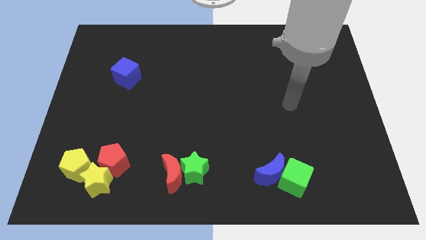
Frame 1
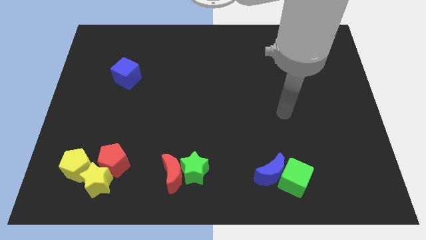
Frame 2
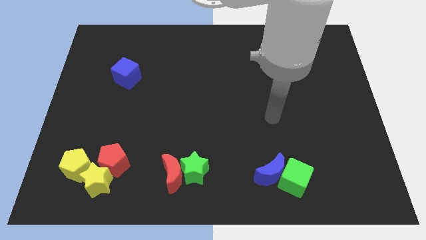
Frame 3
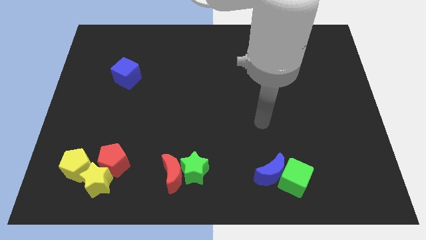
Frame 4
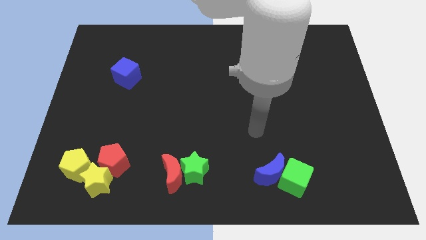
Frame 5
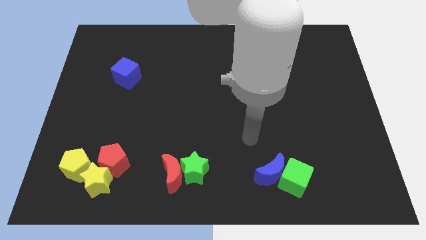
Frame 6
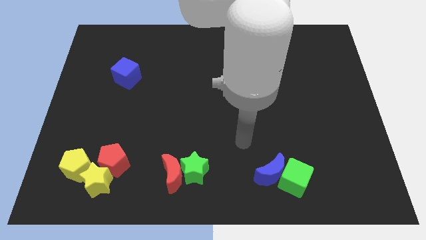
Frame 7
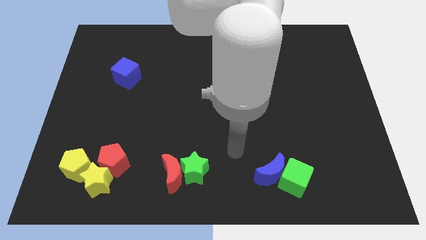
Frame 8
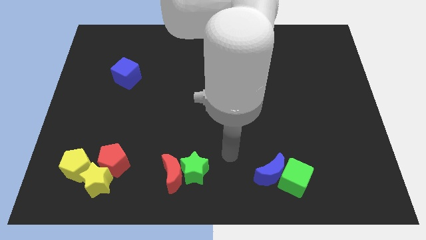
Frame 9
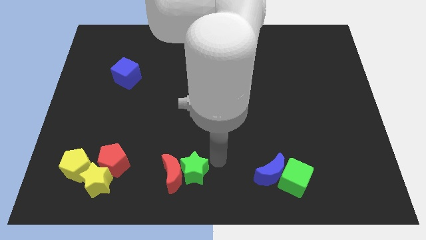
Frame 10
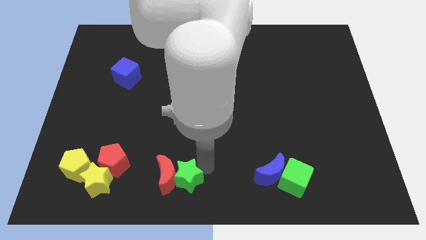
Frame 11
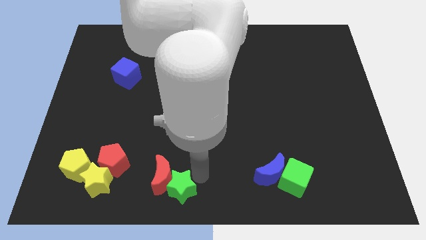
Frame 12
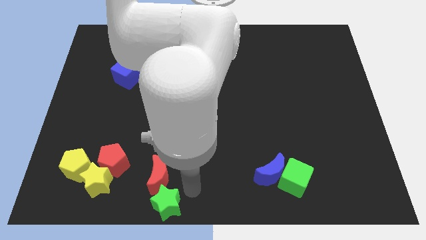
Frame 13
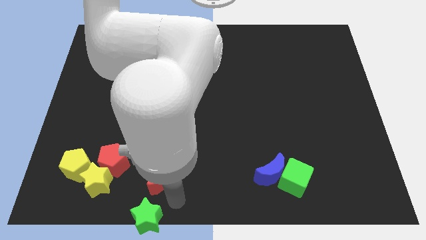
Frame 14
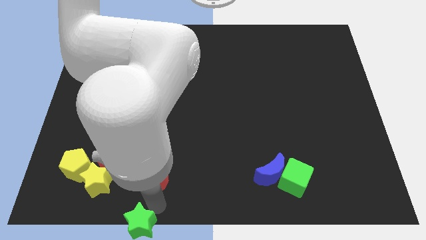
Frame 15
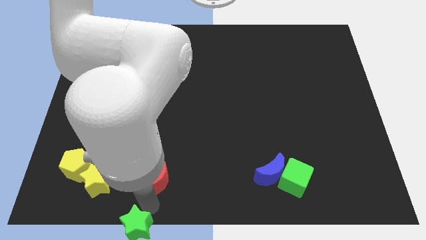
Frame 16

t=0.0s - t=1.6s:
separate the red moon from the green star

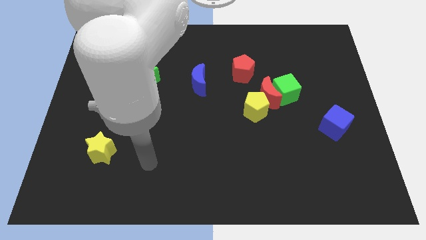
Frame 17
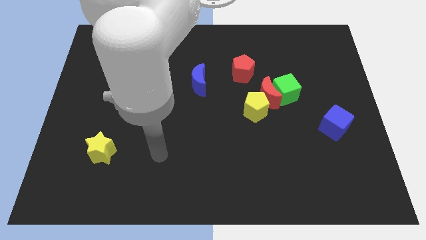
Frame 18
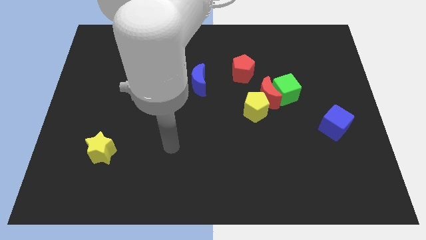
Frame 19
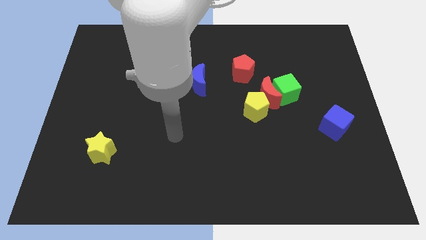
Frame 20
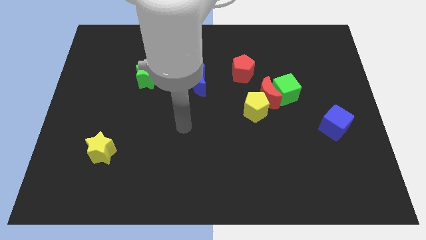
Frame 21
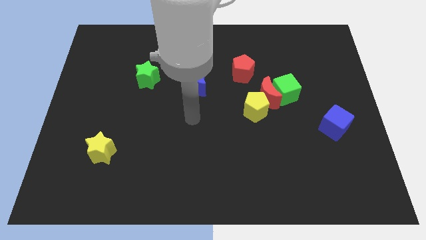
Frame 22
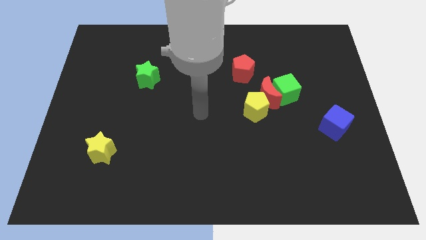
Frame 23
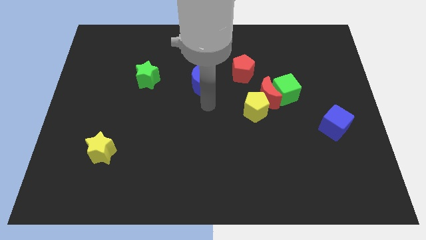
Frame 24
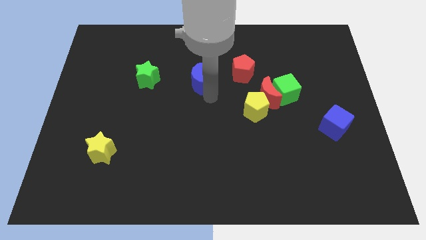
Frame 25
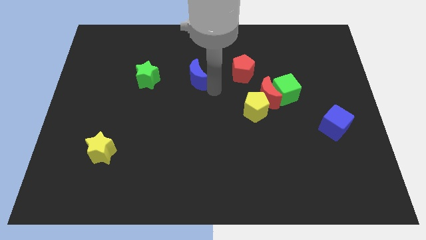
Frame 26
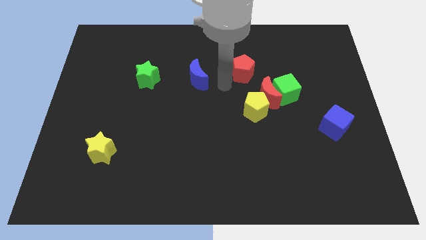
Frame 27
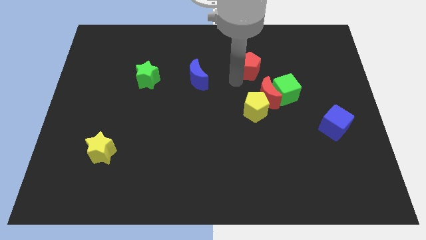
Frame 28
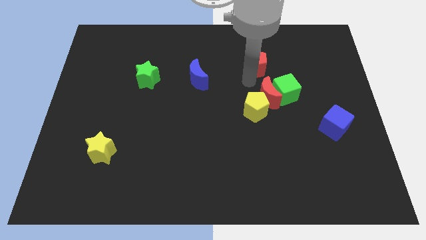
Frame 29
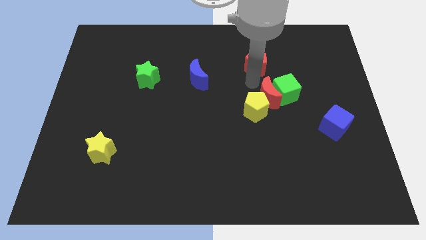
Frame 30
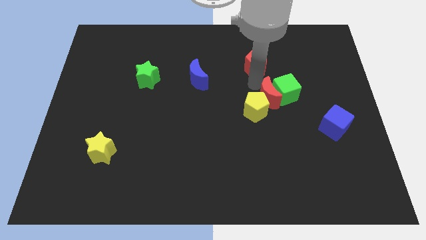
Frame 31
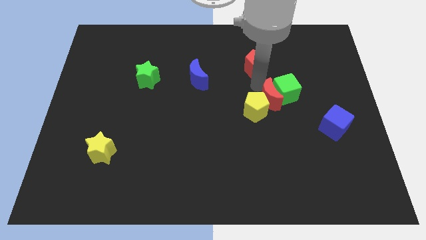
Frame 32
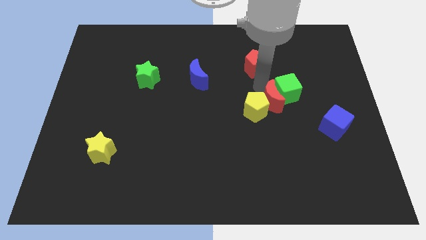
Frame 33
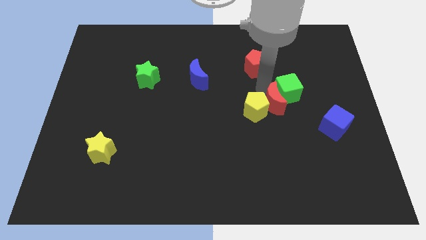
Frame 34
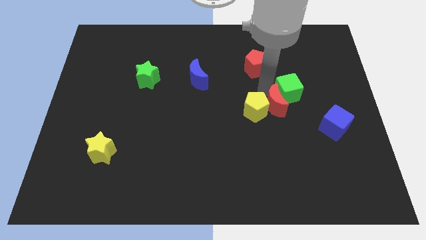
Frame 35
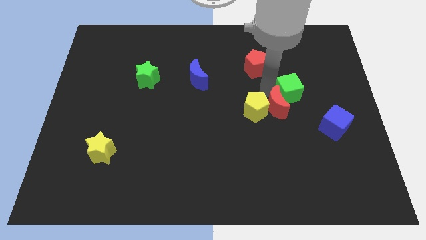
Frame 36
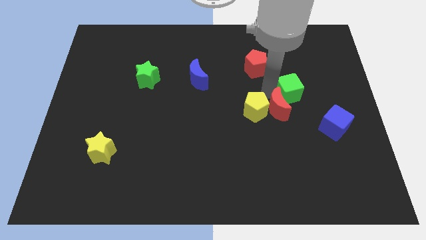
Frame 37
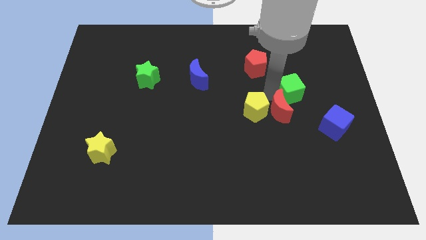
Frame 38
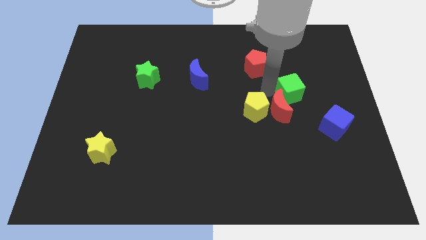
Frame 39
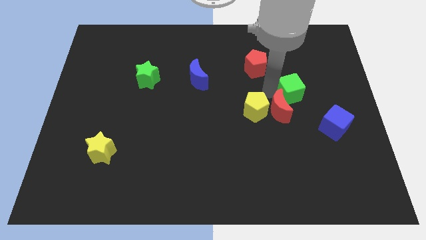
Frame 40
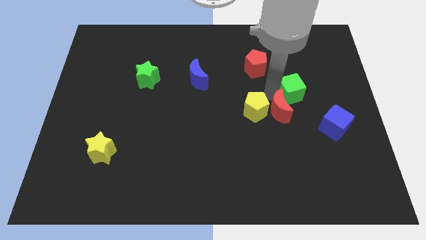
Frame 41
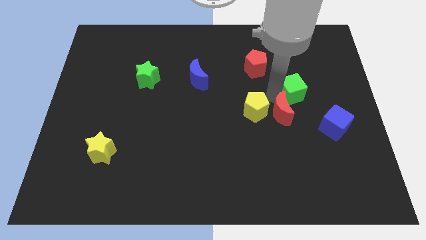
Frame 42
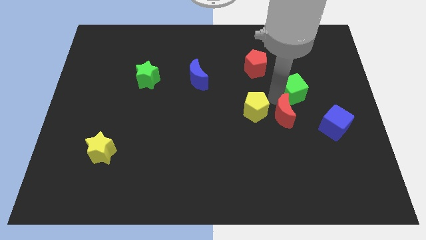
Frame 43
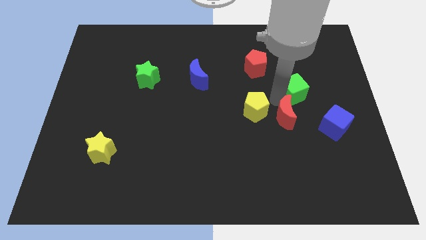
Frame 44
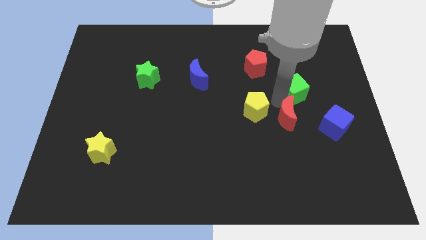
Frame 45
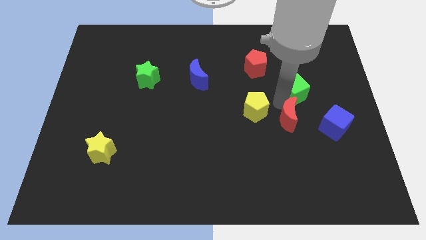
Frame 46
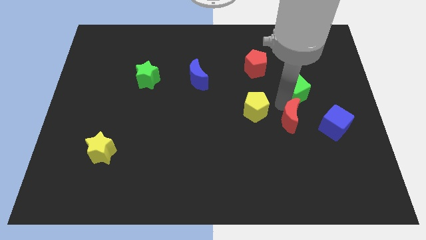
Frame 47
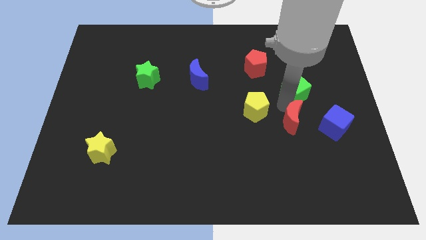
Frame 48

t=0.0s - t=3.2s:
move the red moon away from the green cube, yellow pentagon, and red pentagon

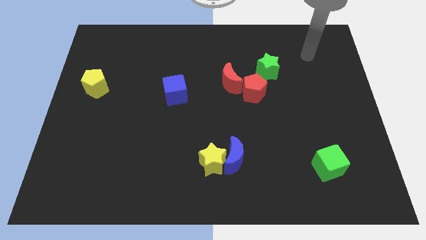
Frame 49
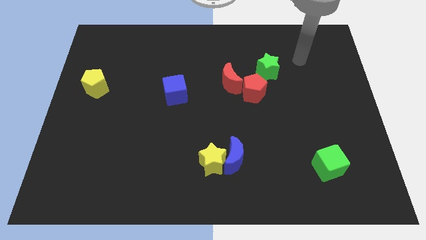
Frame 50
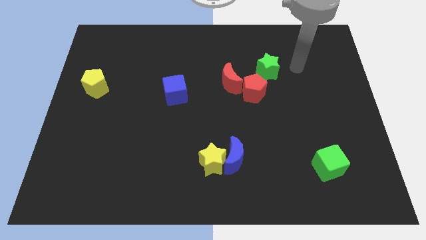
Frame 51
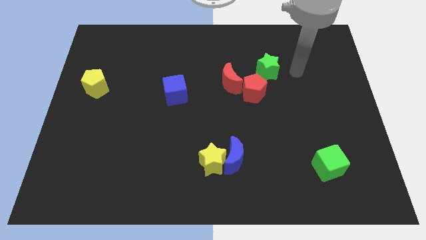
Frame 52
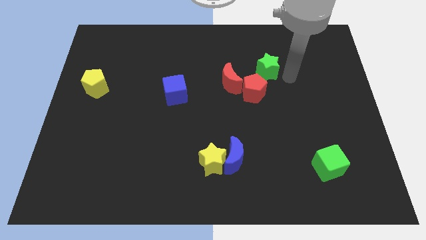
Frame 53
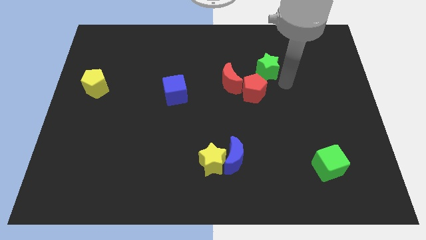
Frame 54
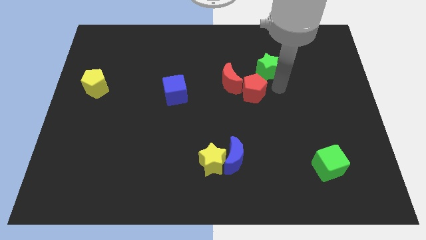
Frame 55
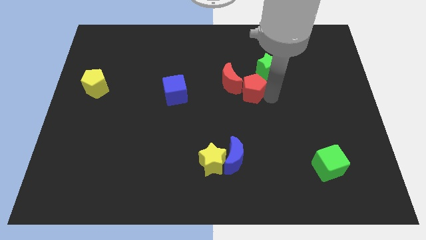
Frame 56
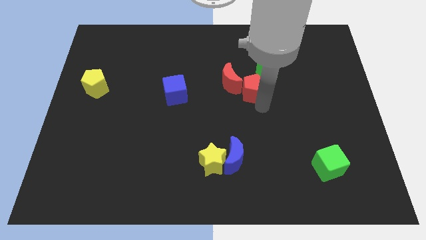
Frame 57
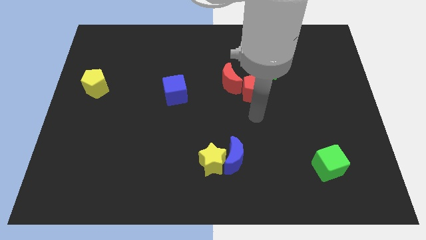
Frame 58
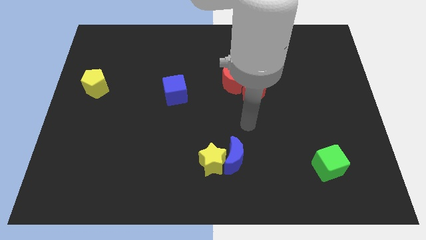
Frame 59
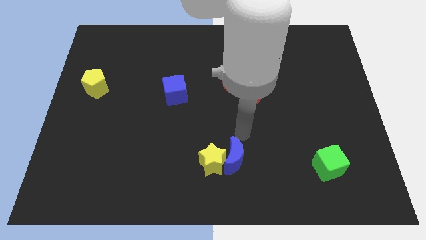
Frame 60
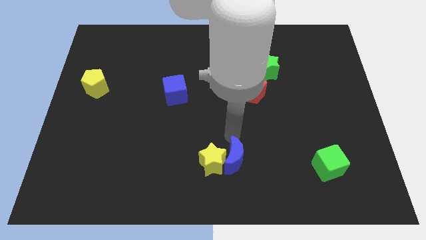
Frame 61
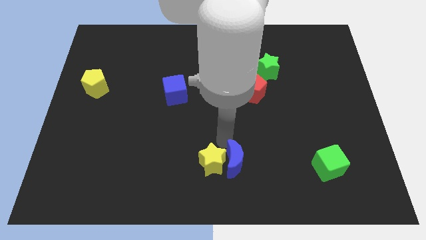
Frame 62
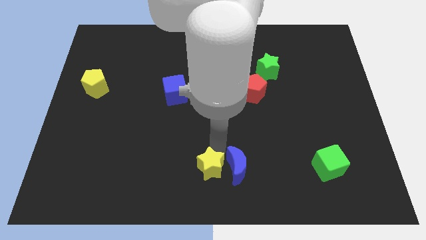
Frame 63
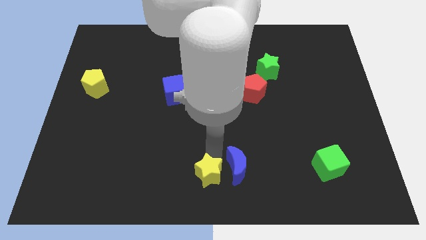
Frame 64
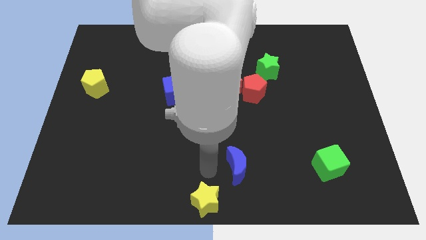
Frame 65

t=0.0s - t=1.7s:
pull the blue moon apart from the yellow star

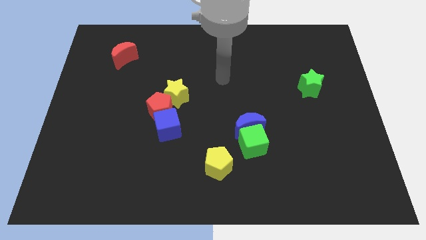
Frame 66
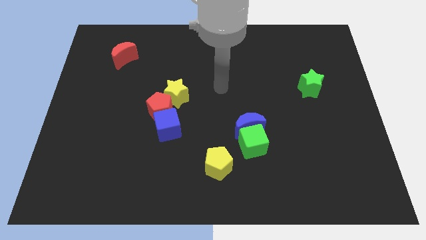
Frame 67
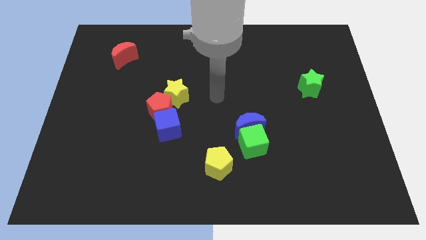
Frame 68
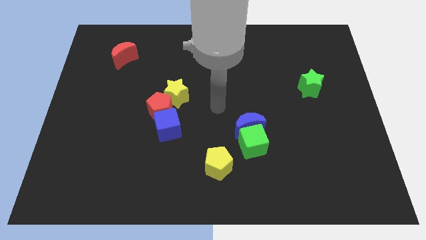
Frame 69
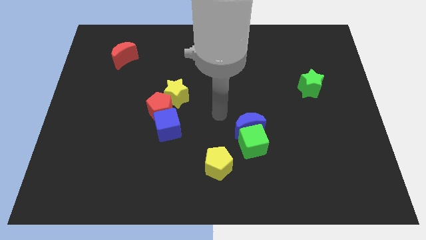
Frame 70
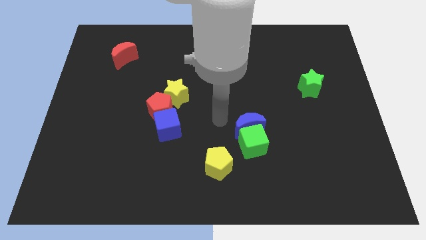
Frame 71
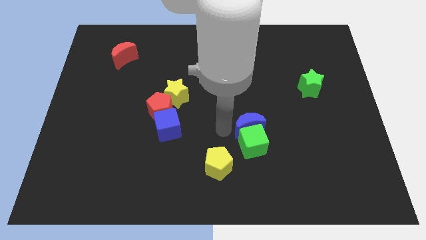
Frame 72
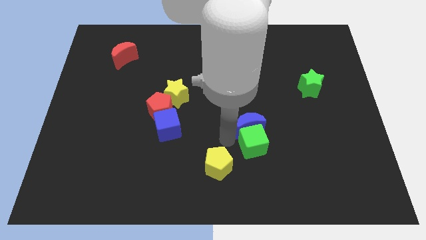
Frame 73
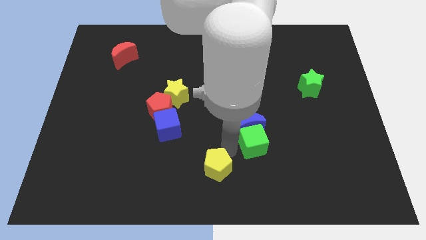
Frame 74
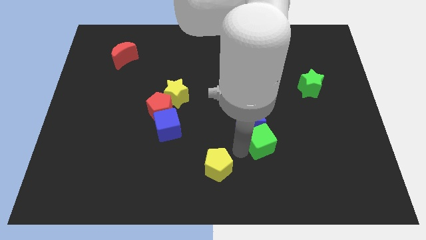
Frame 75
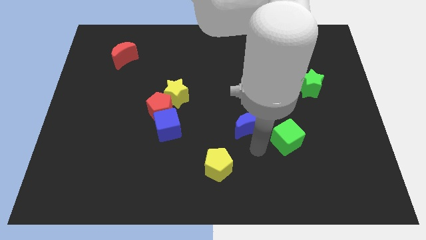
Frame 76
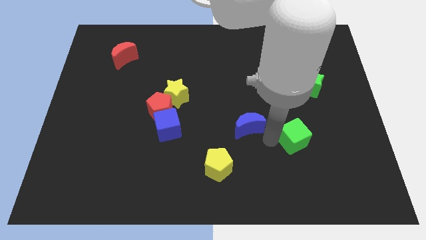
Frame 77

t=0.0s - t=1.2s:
pull the blue moon apart from the green cube

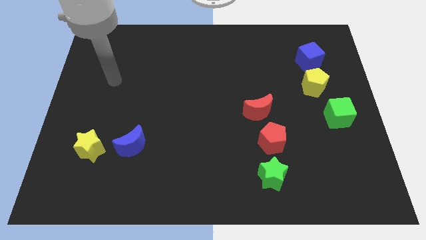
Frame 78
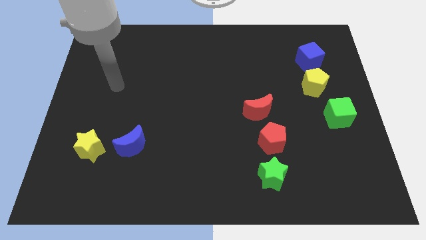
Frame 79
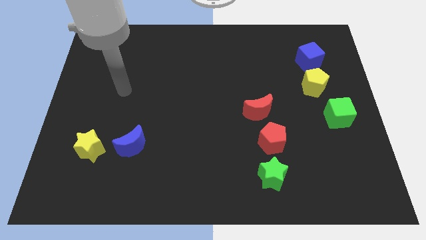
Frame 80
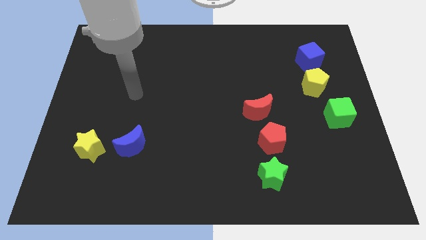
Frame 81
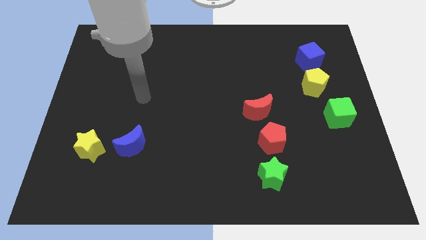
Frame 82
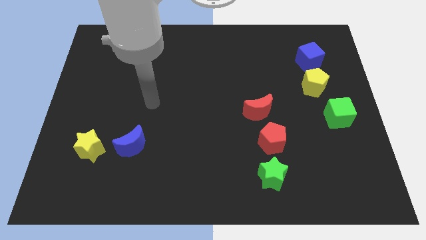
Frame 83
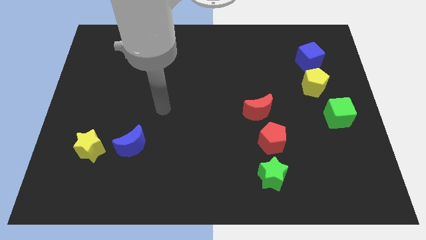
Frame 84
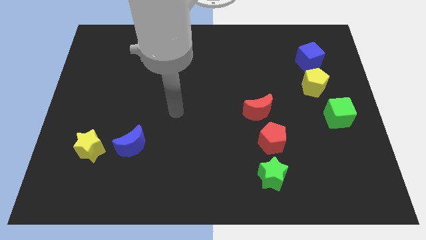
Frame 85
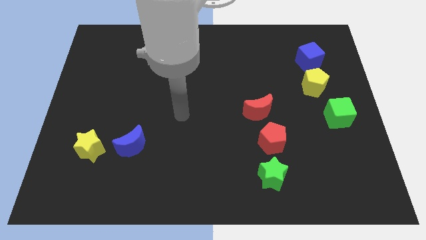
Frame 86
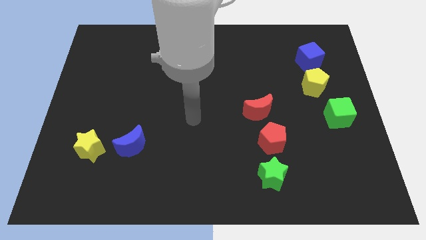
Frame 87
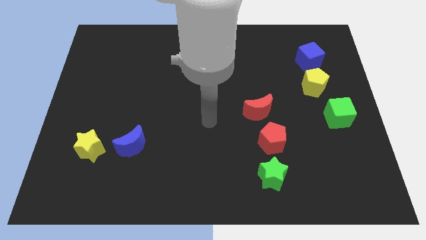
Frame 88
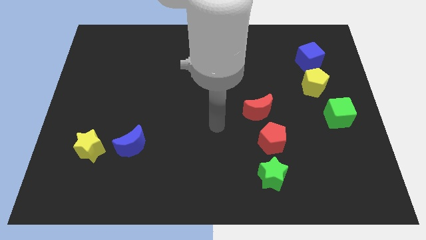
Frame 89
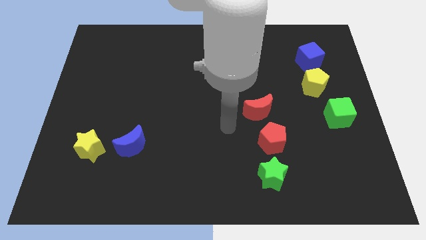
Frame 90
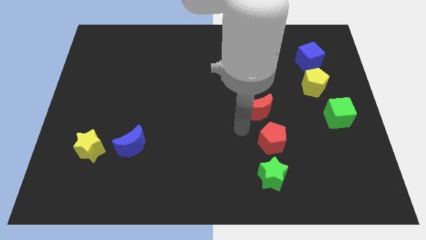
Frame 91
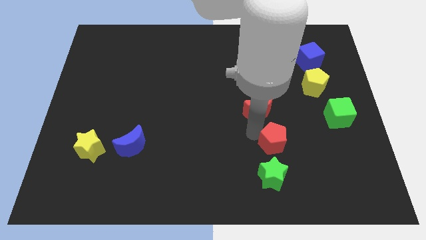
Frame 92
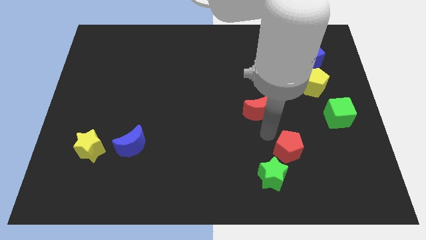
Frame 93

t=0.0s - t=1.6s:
separate the red moon from the red pentagon
